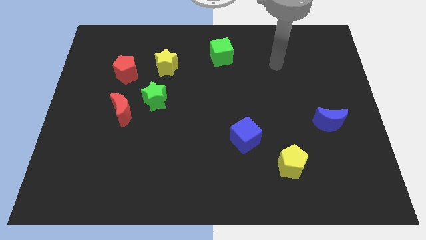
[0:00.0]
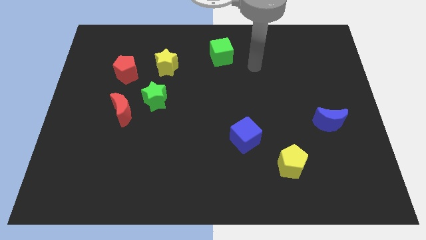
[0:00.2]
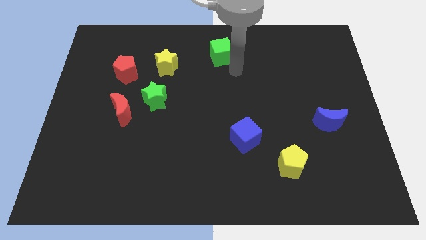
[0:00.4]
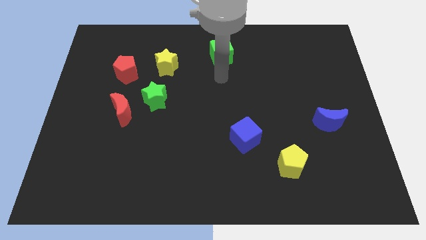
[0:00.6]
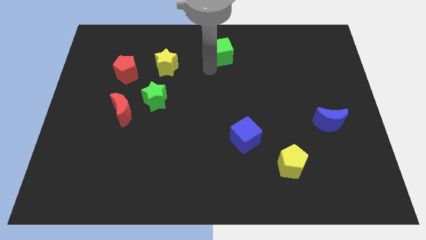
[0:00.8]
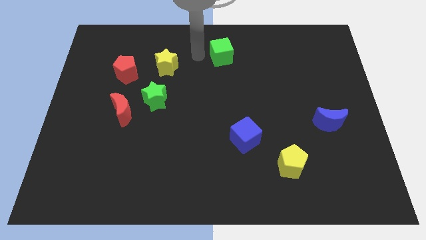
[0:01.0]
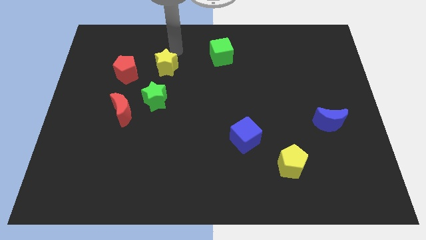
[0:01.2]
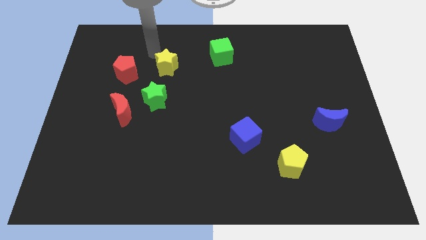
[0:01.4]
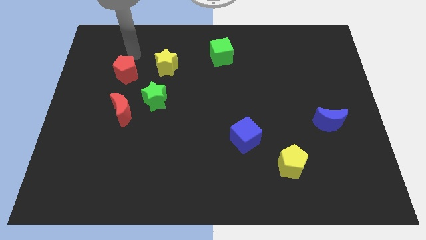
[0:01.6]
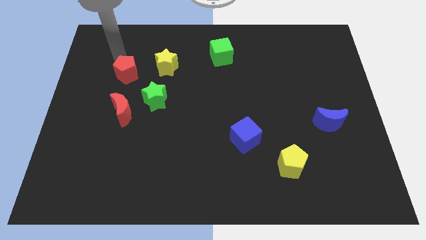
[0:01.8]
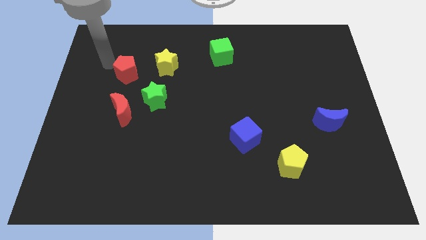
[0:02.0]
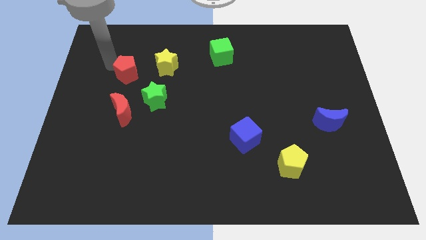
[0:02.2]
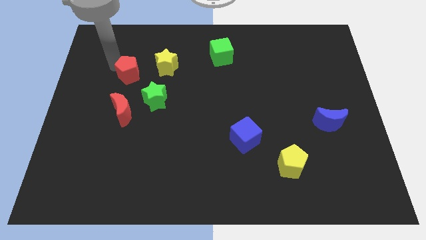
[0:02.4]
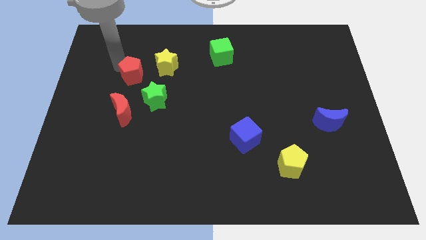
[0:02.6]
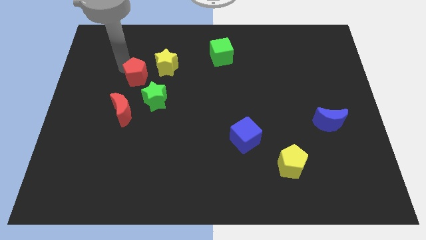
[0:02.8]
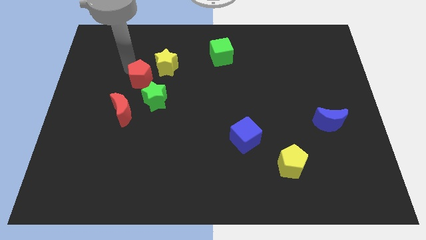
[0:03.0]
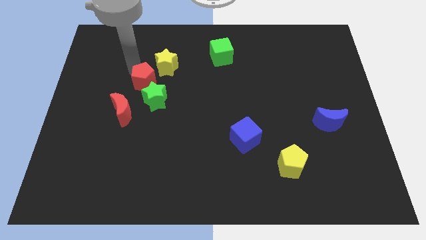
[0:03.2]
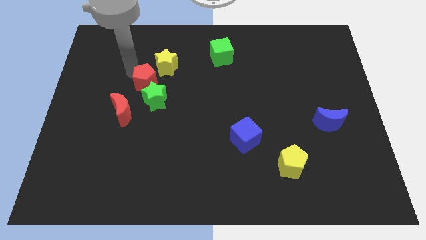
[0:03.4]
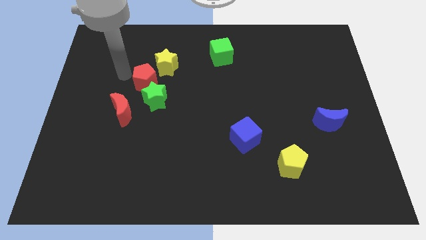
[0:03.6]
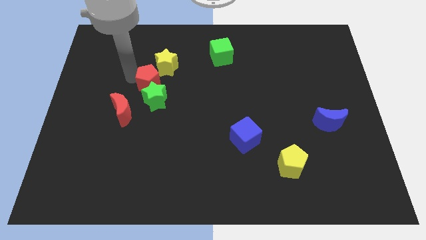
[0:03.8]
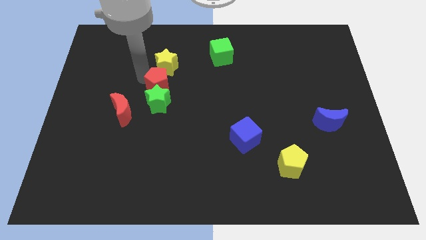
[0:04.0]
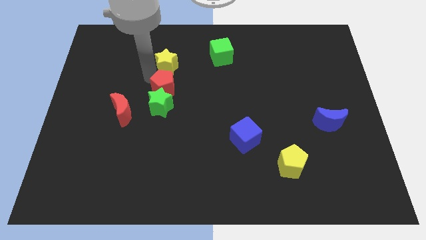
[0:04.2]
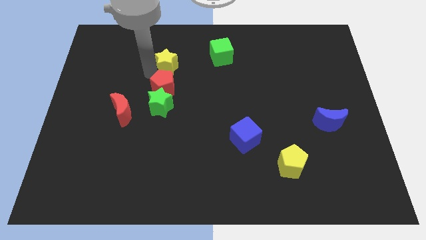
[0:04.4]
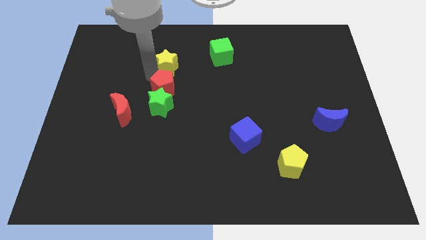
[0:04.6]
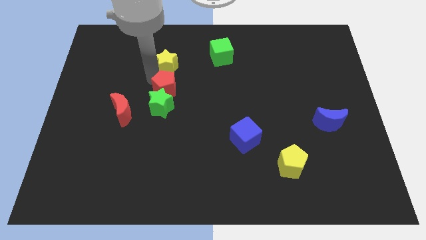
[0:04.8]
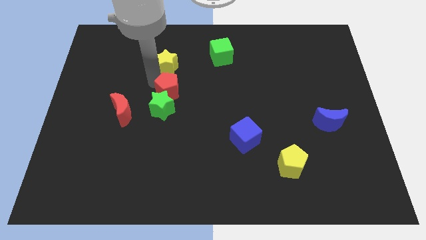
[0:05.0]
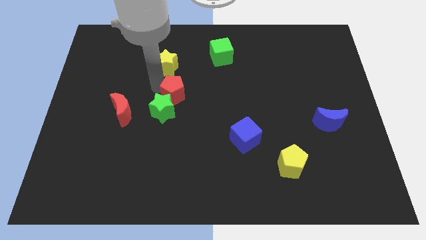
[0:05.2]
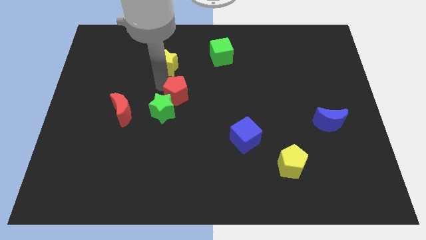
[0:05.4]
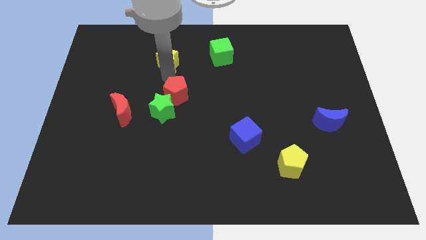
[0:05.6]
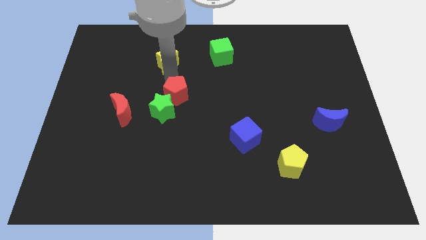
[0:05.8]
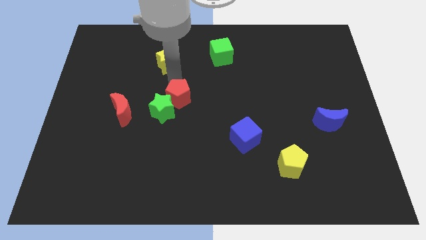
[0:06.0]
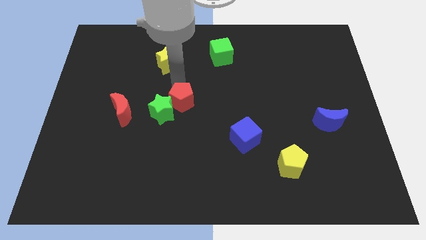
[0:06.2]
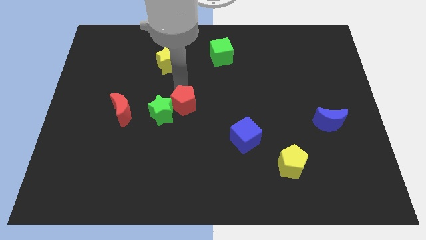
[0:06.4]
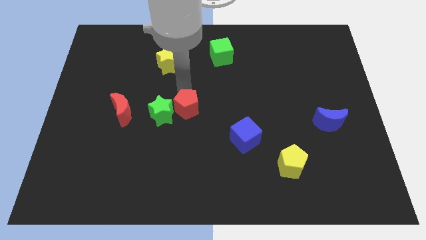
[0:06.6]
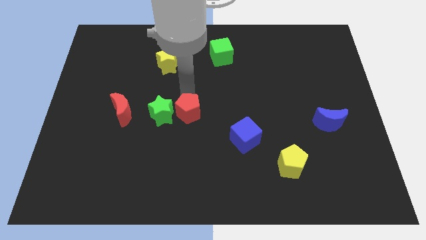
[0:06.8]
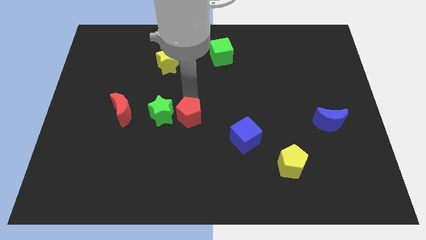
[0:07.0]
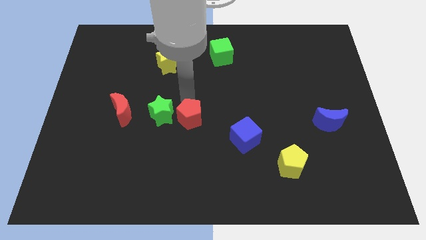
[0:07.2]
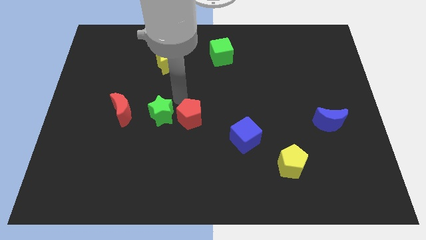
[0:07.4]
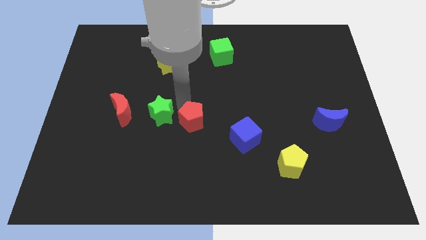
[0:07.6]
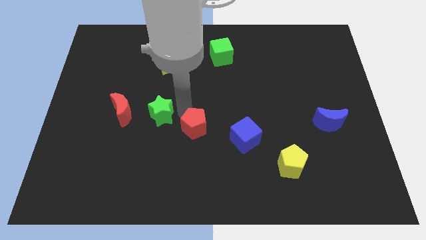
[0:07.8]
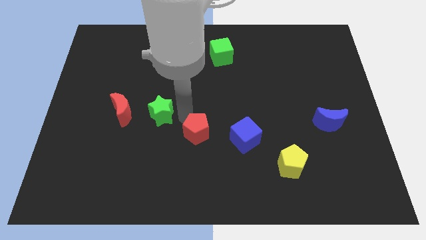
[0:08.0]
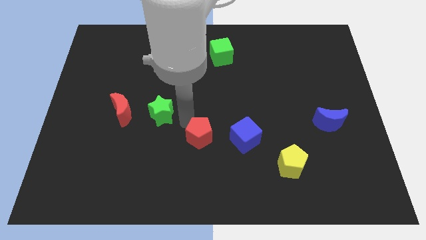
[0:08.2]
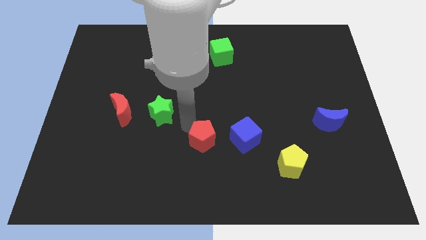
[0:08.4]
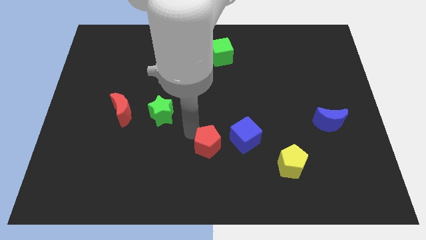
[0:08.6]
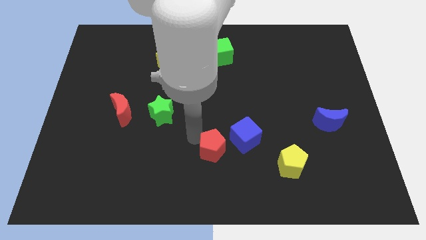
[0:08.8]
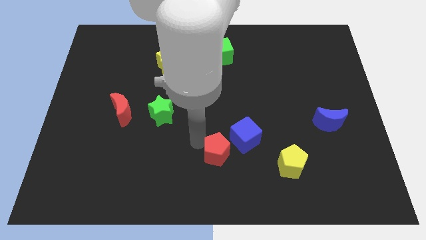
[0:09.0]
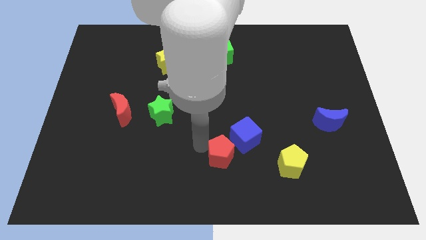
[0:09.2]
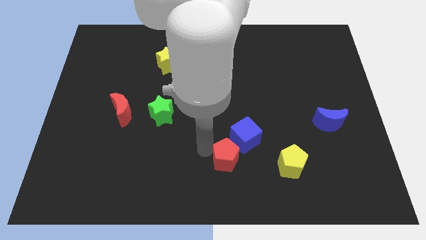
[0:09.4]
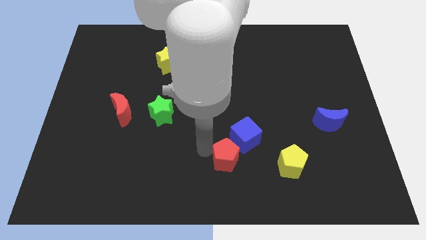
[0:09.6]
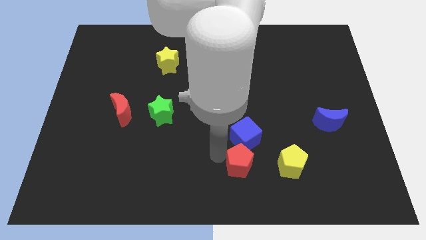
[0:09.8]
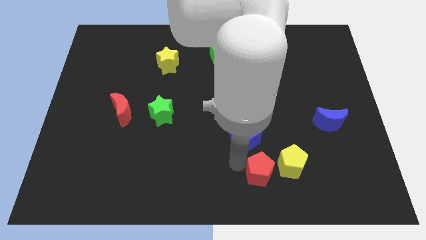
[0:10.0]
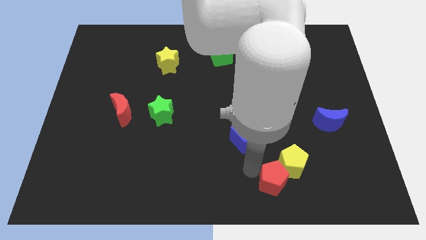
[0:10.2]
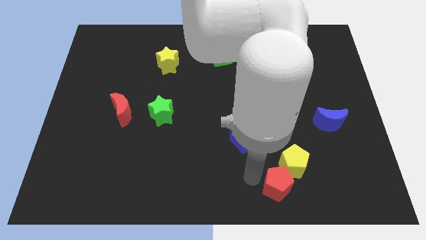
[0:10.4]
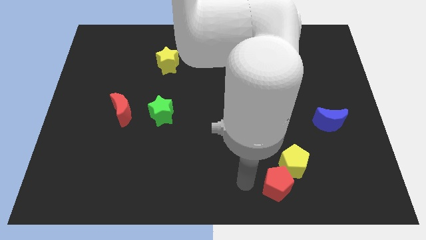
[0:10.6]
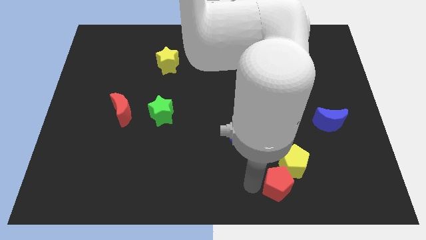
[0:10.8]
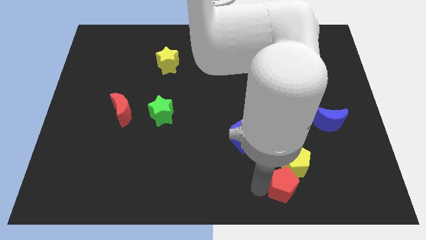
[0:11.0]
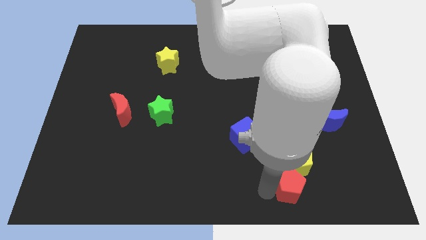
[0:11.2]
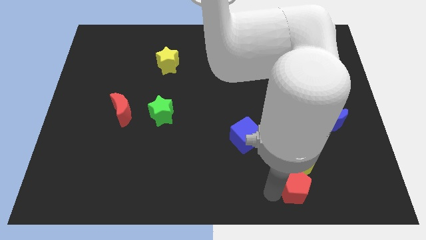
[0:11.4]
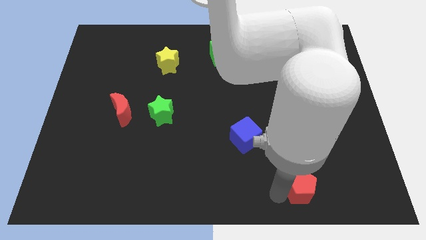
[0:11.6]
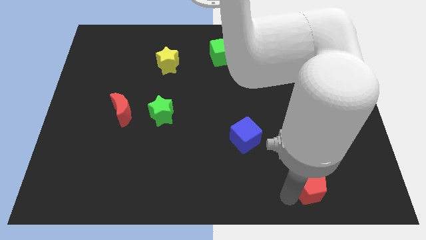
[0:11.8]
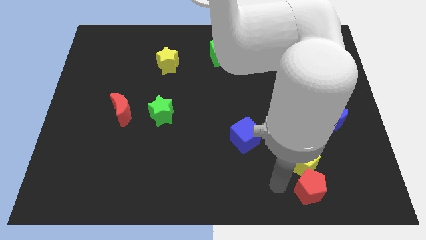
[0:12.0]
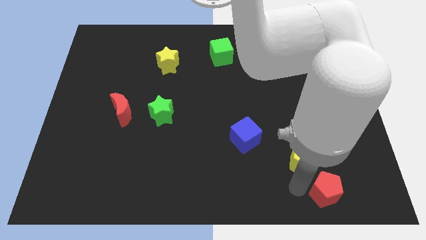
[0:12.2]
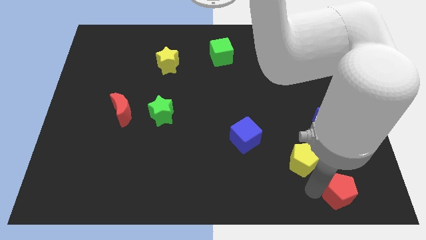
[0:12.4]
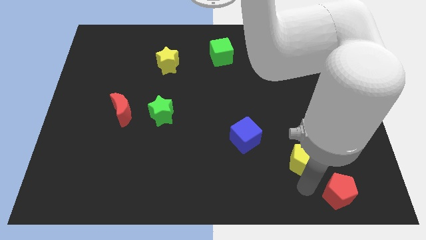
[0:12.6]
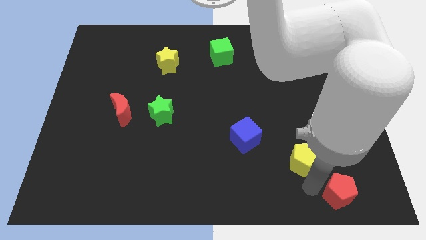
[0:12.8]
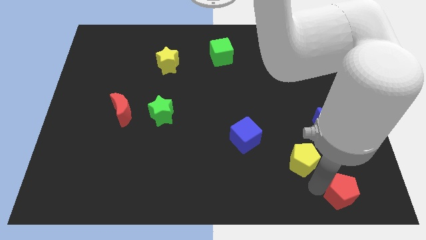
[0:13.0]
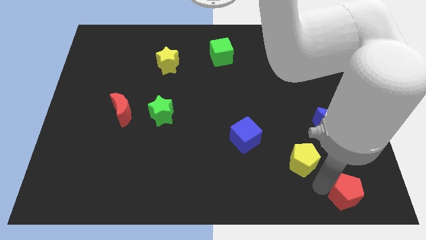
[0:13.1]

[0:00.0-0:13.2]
slide the red pentagon to the bottom right corner
